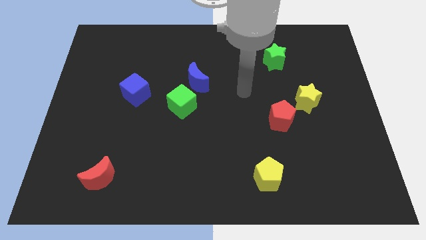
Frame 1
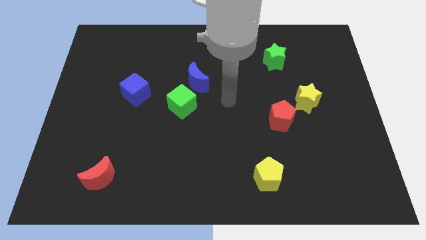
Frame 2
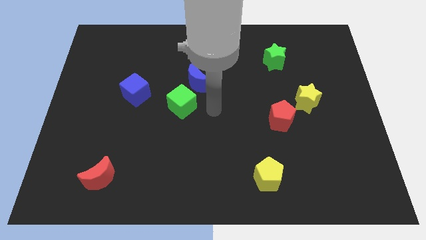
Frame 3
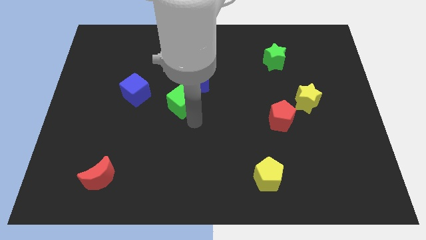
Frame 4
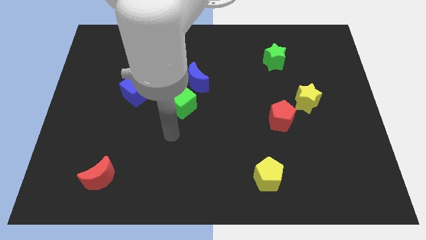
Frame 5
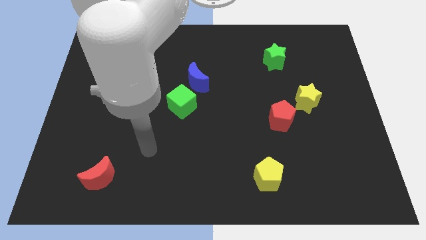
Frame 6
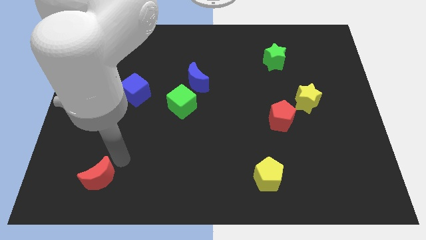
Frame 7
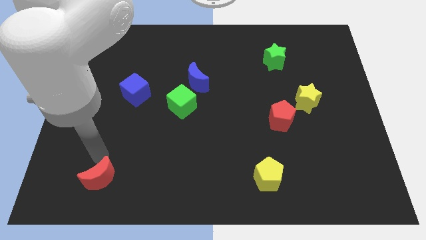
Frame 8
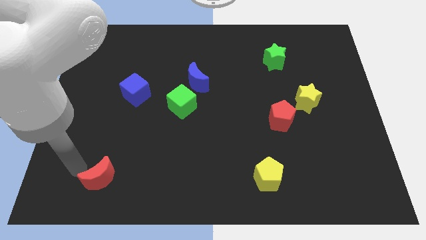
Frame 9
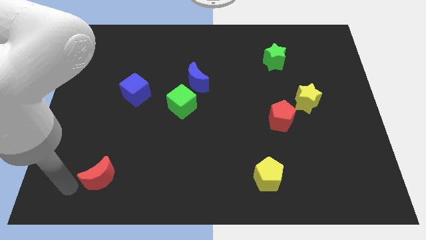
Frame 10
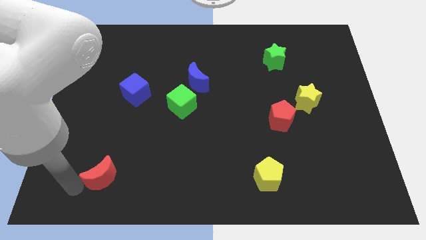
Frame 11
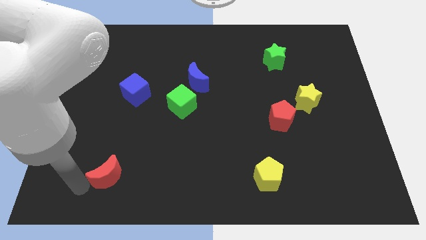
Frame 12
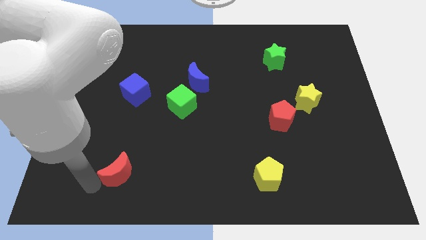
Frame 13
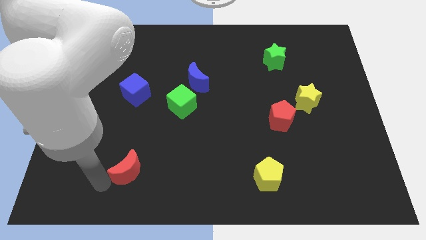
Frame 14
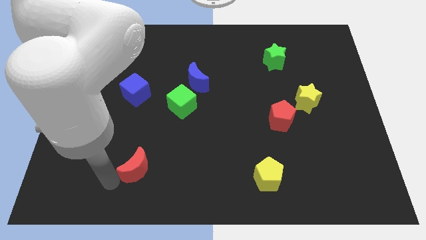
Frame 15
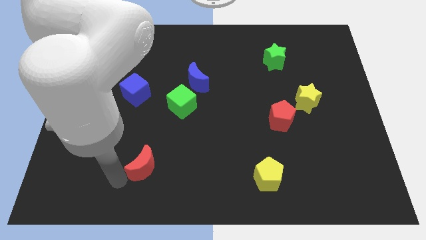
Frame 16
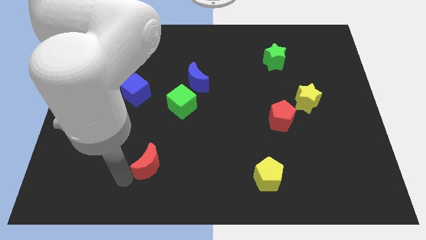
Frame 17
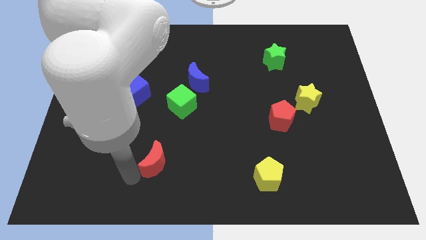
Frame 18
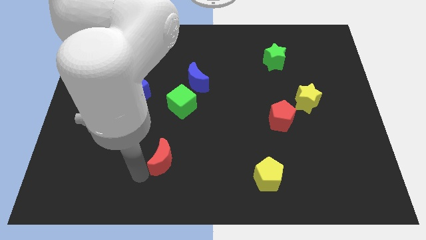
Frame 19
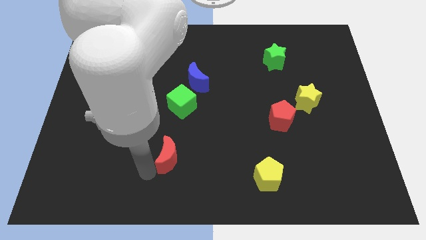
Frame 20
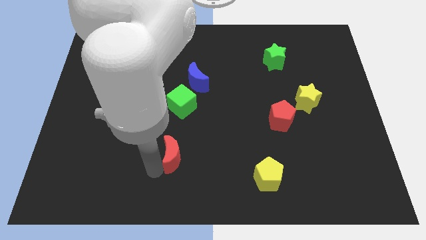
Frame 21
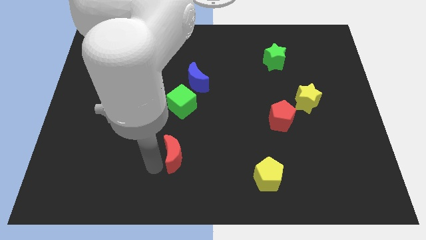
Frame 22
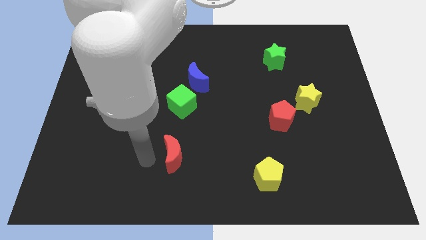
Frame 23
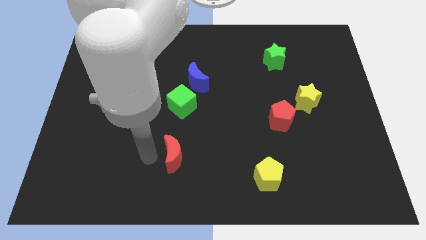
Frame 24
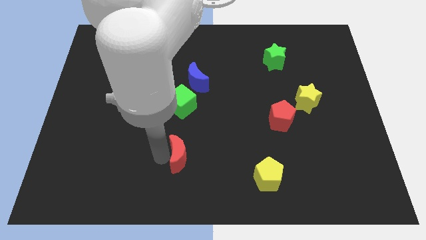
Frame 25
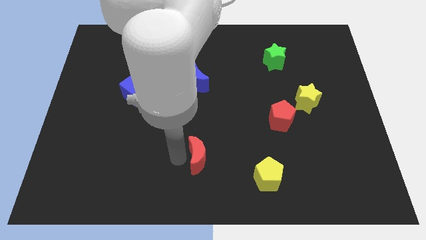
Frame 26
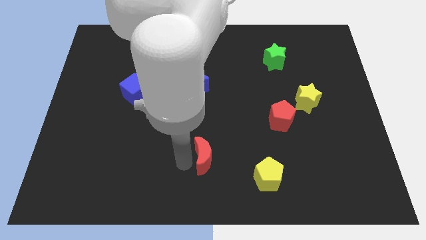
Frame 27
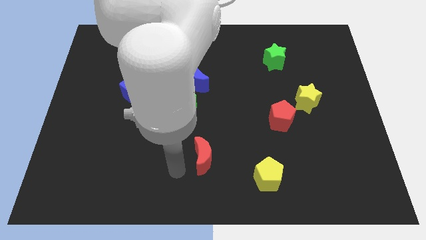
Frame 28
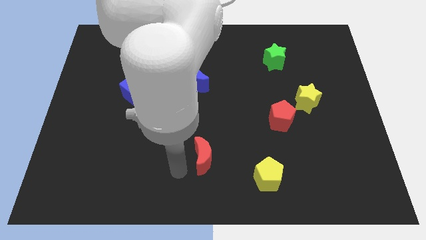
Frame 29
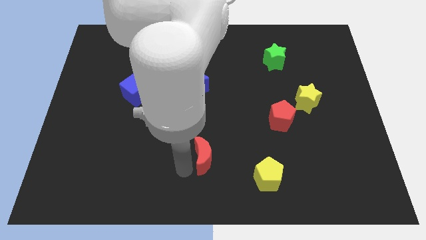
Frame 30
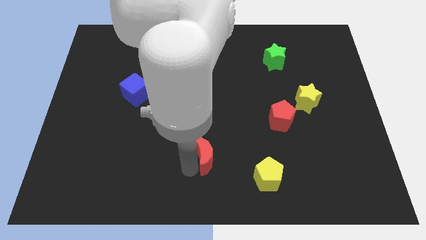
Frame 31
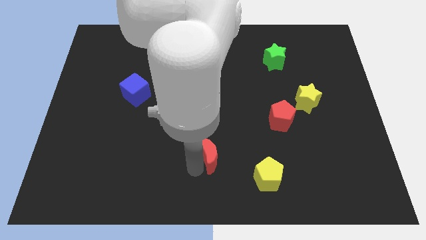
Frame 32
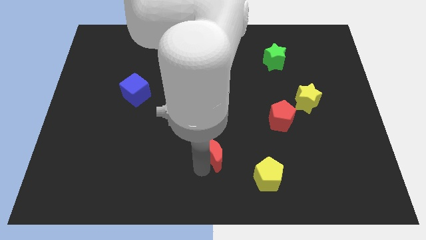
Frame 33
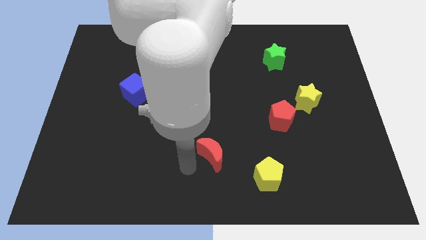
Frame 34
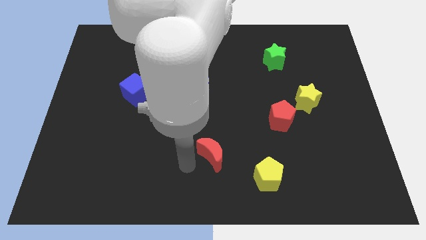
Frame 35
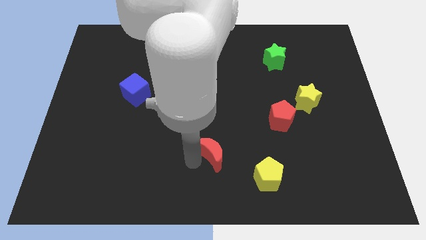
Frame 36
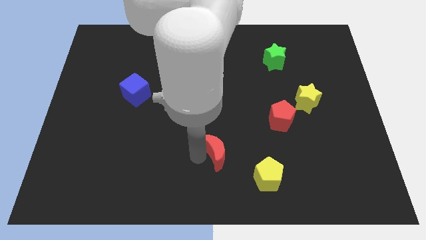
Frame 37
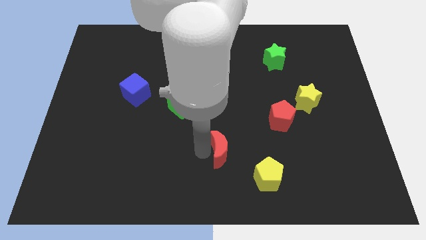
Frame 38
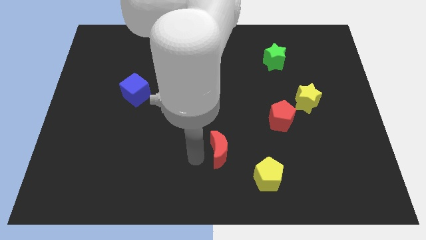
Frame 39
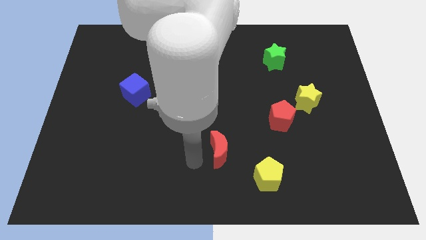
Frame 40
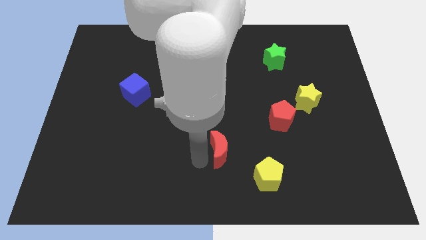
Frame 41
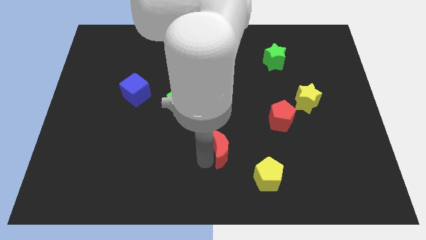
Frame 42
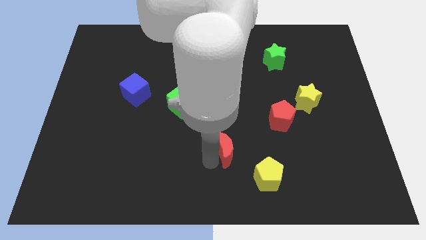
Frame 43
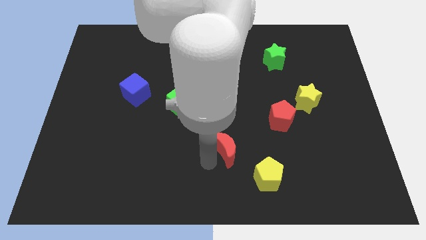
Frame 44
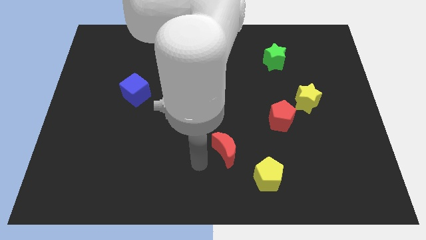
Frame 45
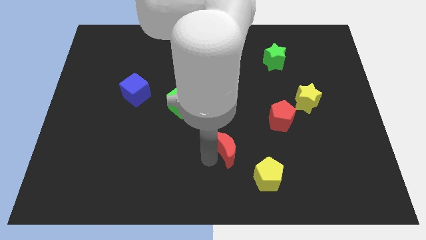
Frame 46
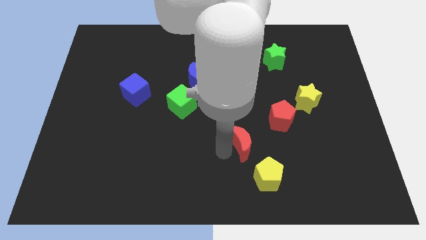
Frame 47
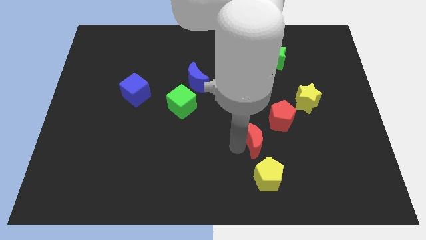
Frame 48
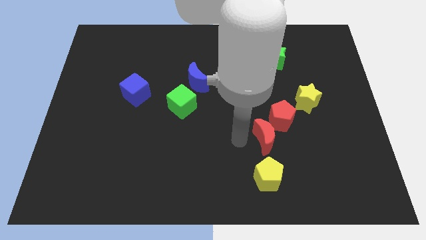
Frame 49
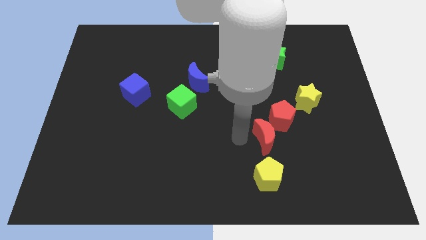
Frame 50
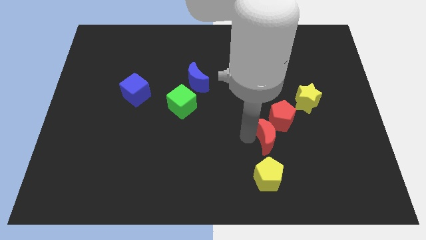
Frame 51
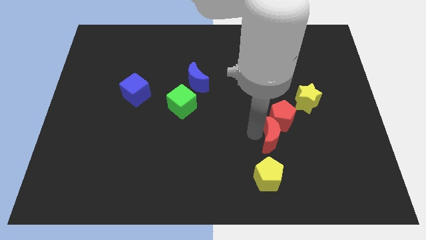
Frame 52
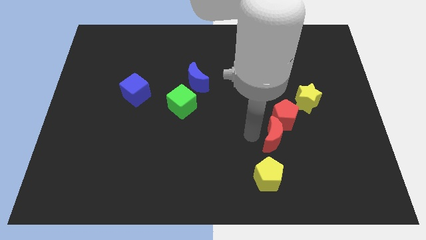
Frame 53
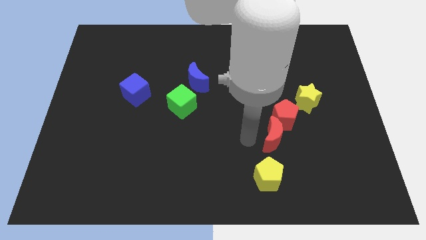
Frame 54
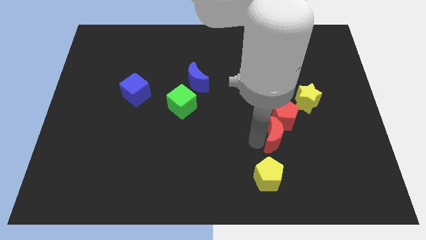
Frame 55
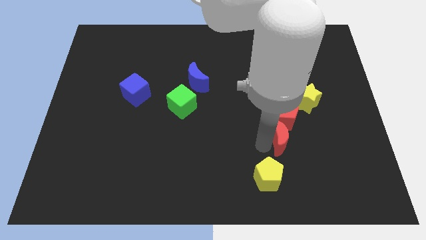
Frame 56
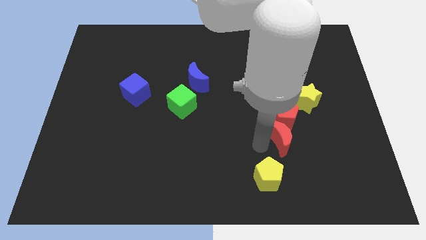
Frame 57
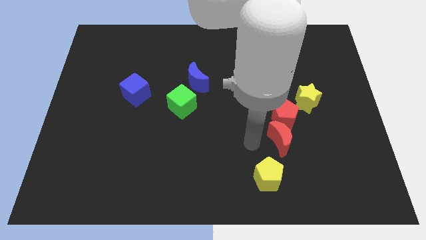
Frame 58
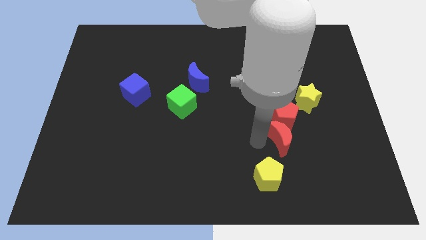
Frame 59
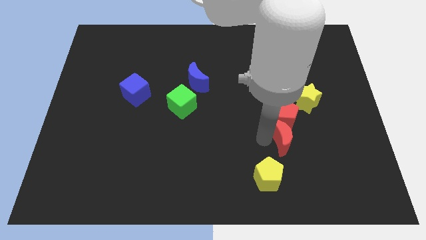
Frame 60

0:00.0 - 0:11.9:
put the red moon to the bottom right side of the red pentagon

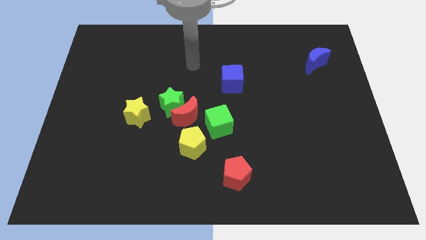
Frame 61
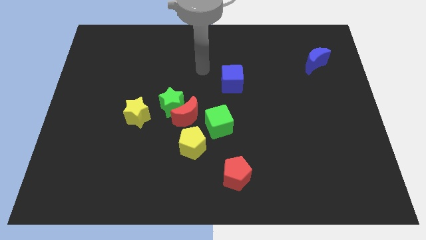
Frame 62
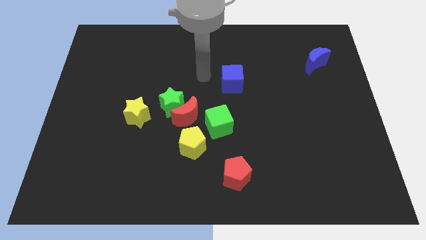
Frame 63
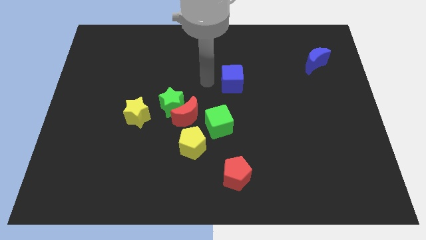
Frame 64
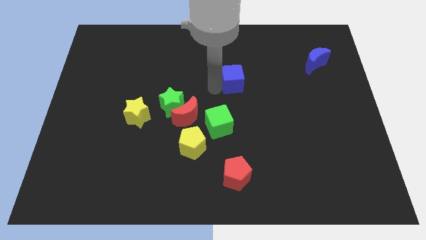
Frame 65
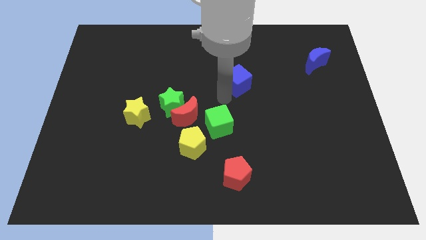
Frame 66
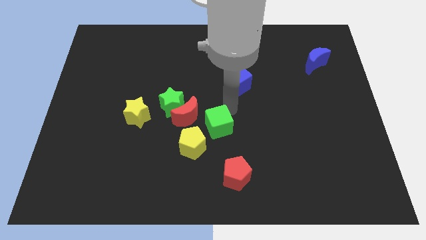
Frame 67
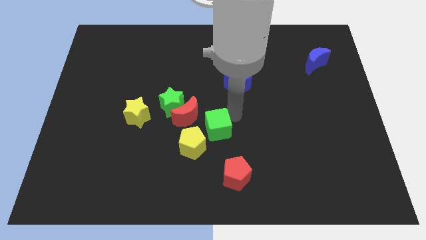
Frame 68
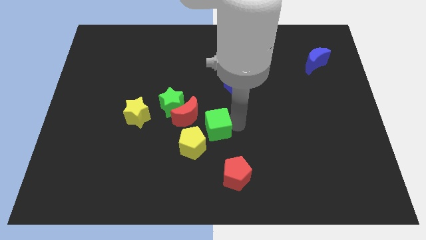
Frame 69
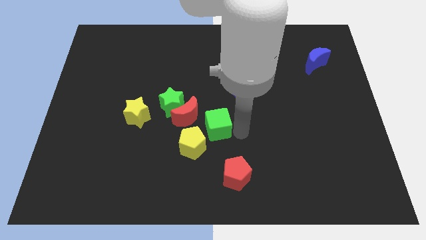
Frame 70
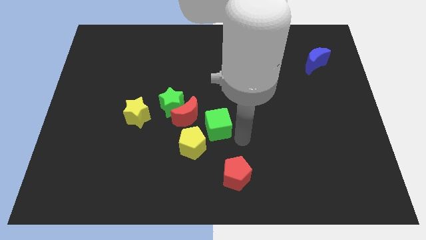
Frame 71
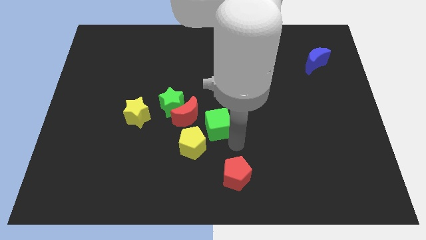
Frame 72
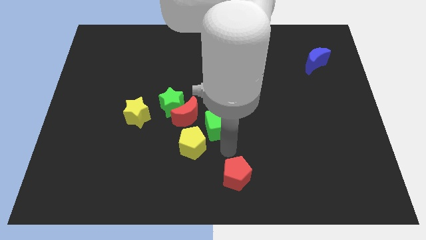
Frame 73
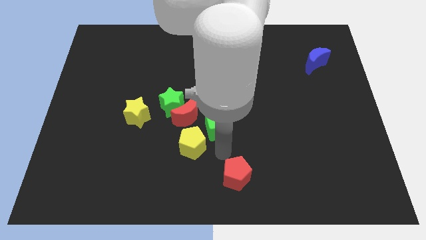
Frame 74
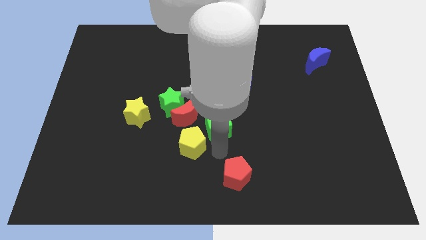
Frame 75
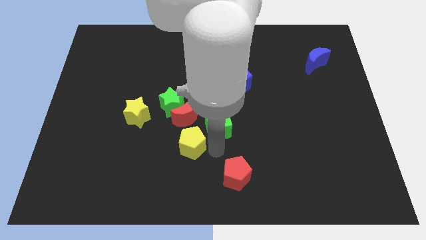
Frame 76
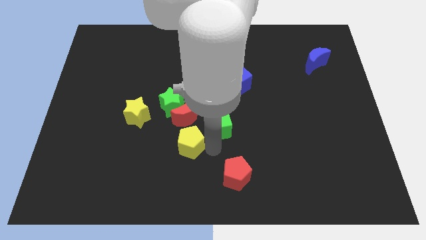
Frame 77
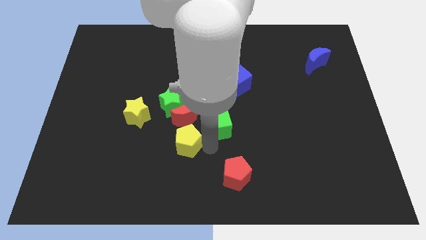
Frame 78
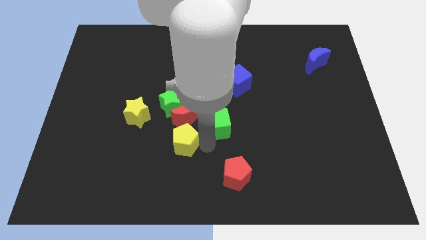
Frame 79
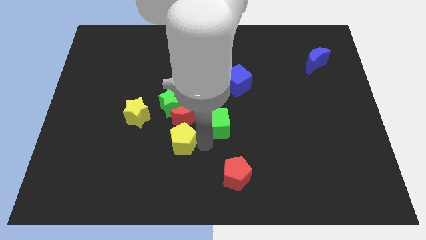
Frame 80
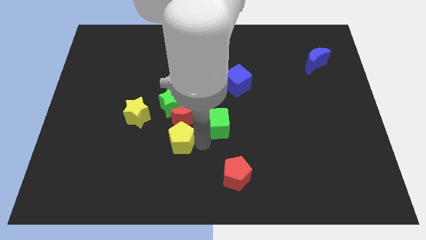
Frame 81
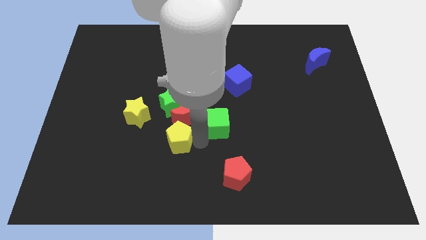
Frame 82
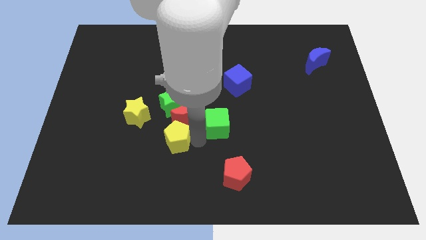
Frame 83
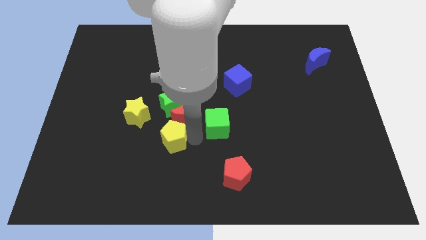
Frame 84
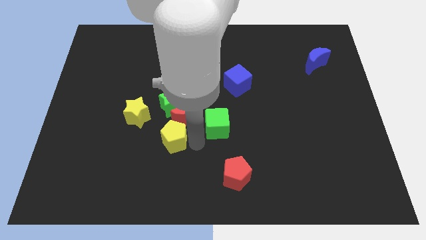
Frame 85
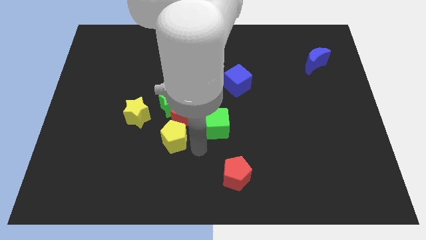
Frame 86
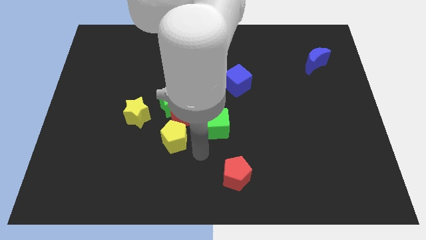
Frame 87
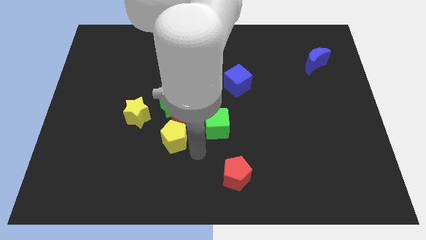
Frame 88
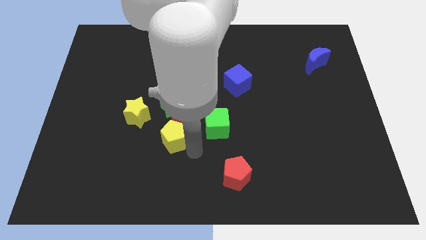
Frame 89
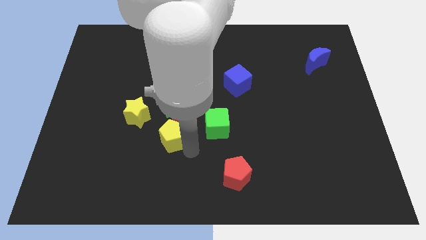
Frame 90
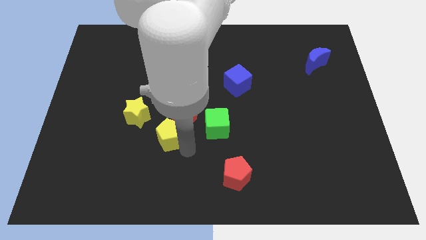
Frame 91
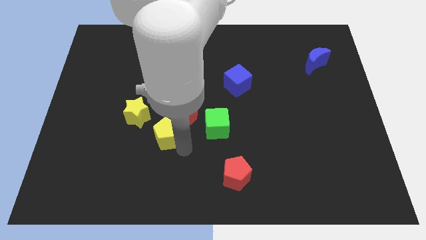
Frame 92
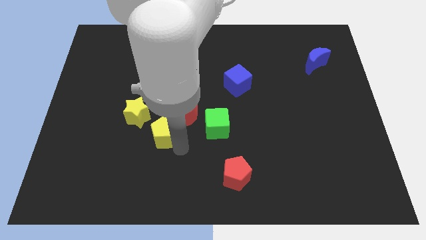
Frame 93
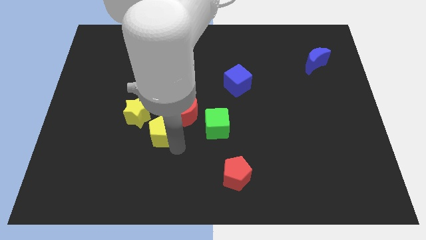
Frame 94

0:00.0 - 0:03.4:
put the yellow pentagon to the bottom left of the green star
